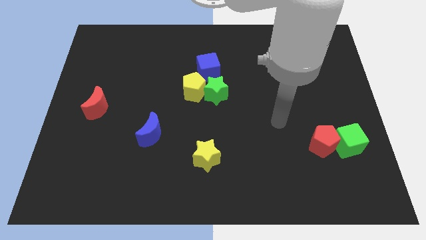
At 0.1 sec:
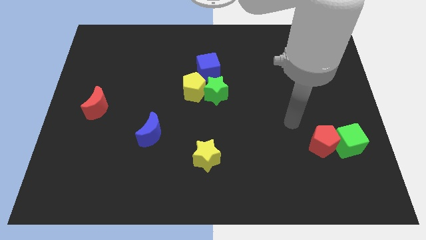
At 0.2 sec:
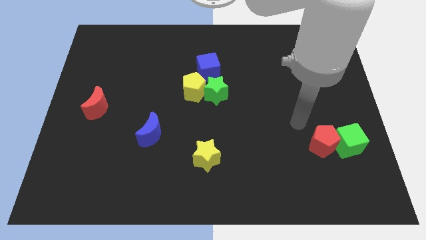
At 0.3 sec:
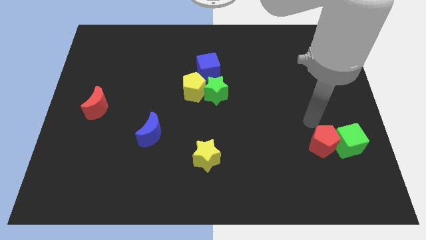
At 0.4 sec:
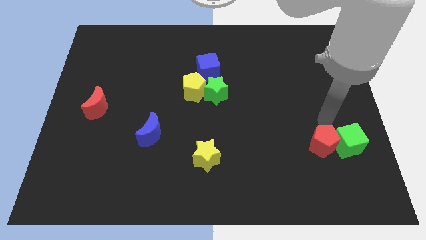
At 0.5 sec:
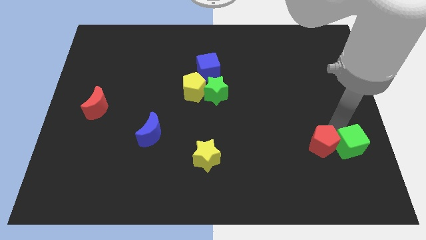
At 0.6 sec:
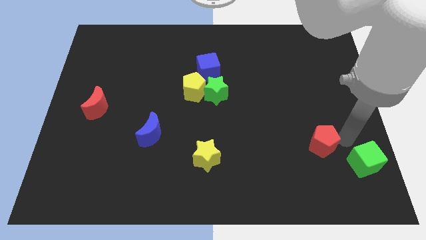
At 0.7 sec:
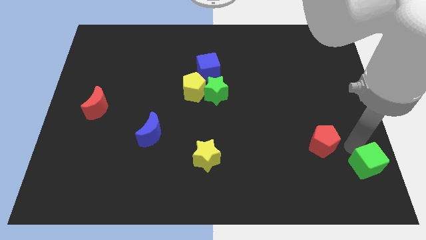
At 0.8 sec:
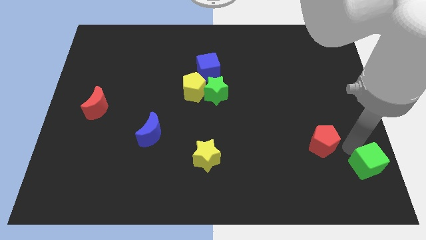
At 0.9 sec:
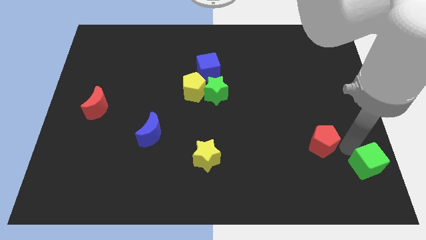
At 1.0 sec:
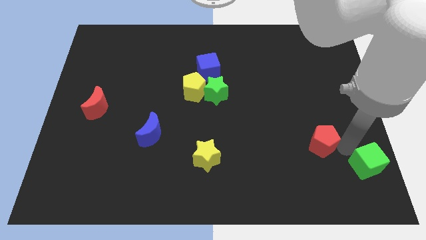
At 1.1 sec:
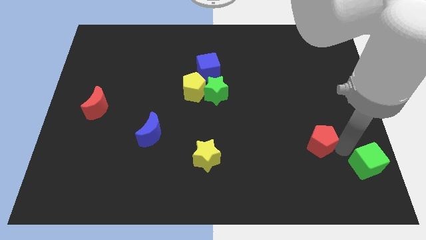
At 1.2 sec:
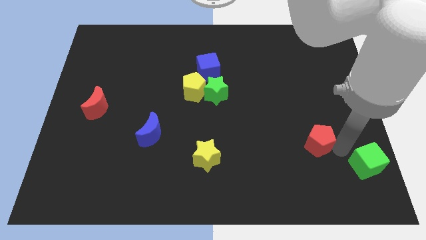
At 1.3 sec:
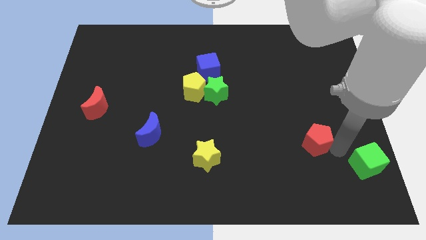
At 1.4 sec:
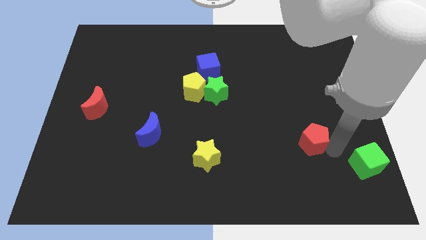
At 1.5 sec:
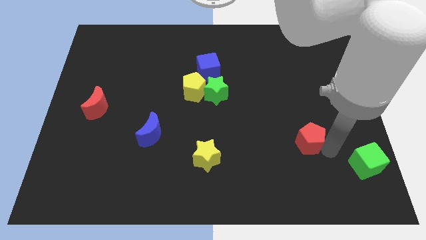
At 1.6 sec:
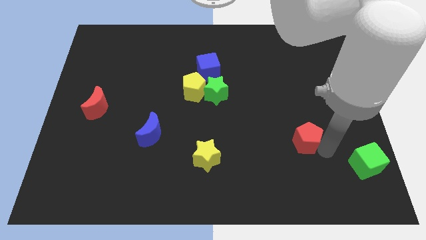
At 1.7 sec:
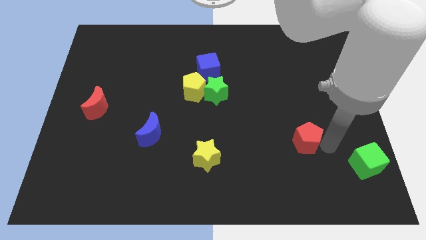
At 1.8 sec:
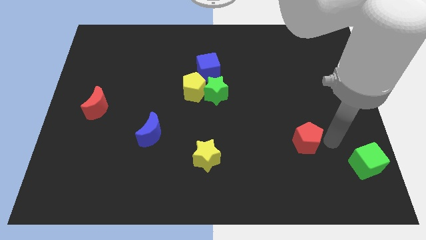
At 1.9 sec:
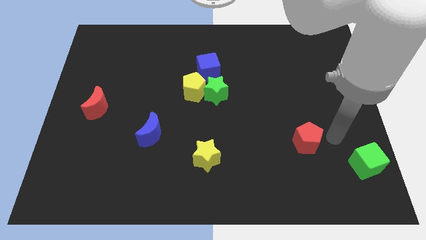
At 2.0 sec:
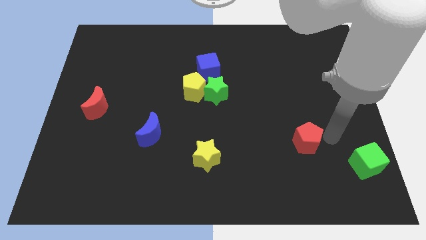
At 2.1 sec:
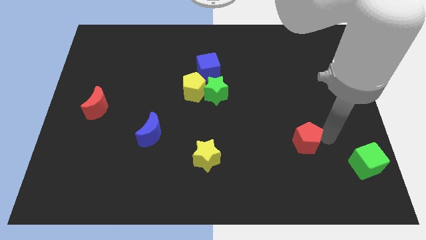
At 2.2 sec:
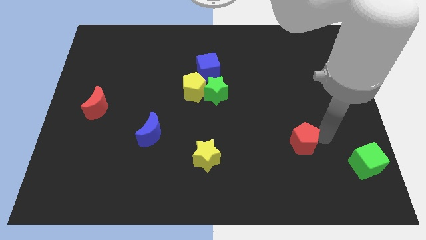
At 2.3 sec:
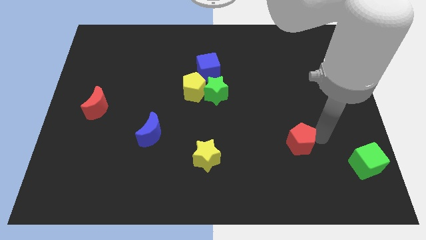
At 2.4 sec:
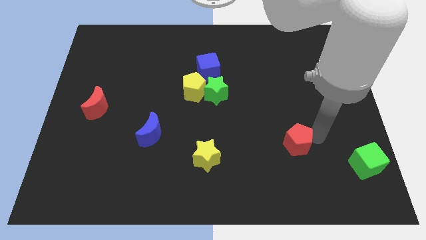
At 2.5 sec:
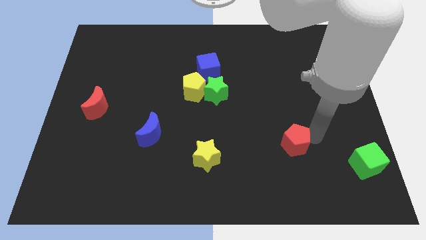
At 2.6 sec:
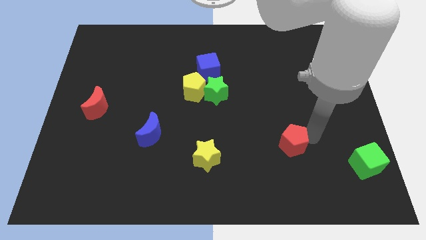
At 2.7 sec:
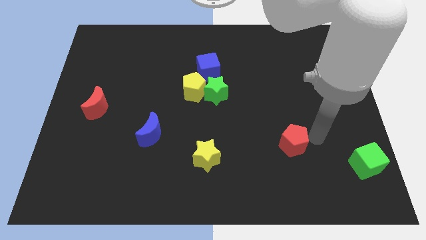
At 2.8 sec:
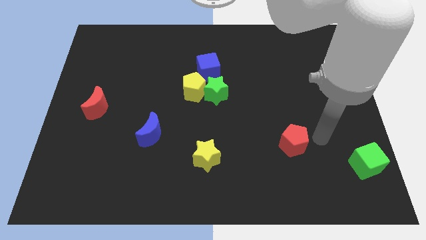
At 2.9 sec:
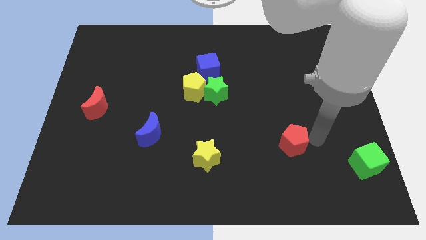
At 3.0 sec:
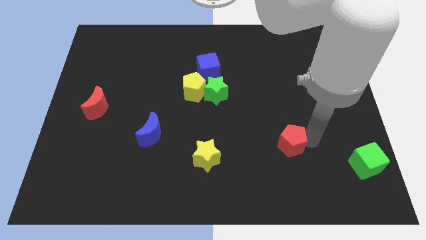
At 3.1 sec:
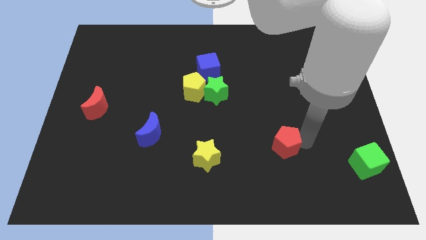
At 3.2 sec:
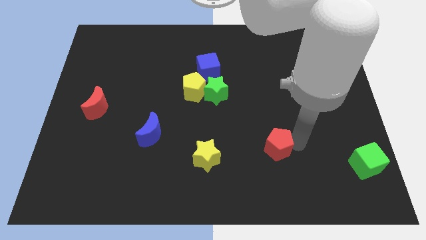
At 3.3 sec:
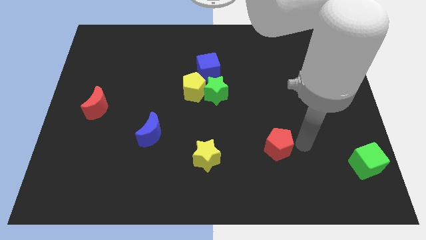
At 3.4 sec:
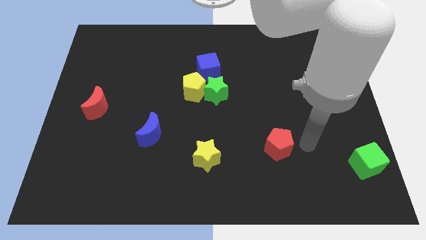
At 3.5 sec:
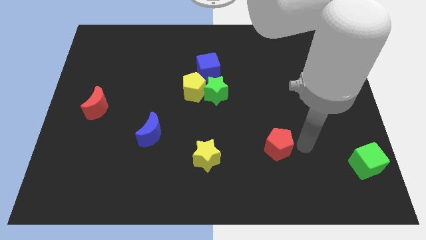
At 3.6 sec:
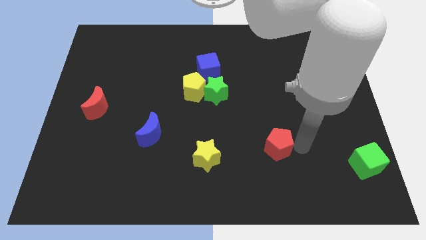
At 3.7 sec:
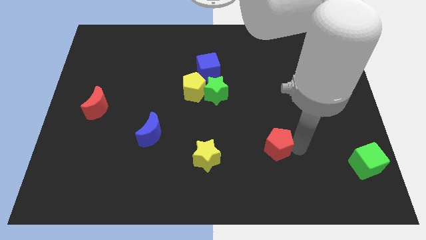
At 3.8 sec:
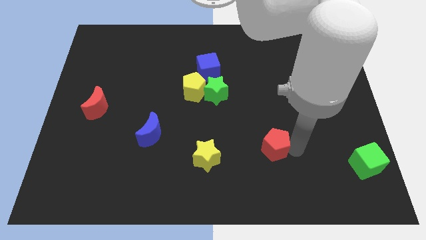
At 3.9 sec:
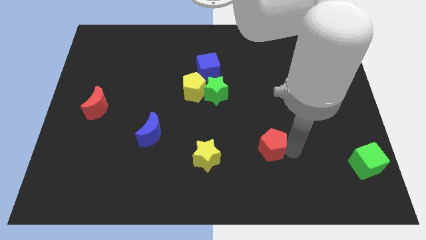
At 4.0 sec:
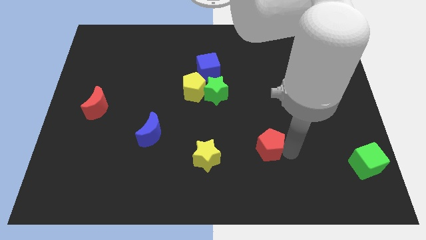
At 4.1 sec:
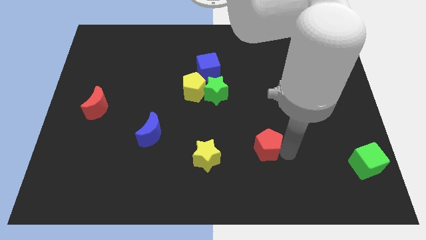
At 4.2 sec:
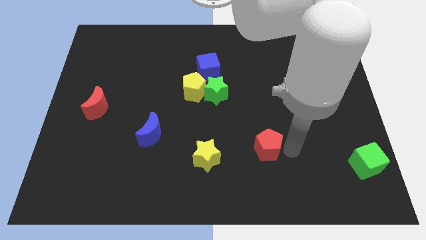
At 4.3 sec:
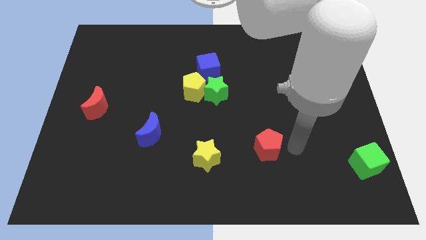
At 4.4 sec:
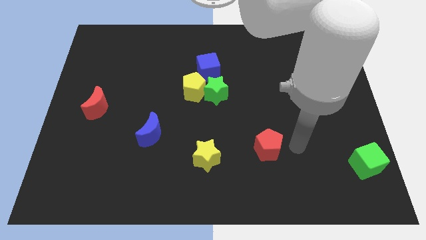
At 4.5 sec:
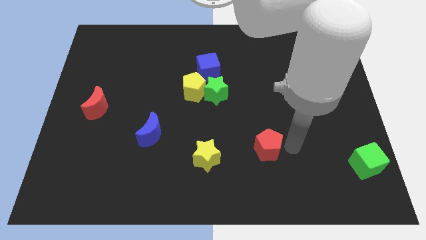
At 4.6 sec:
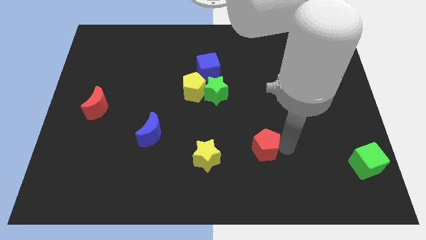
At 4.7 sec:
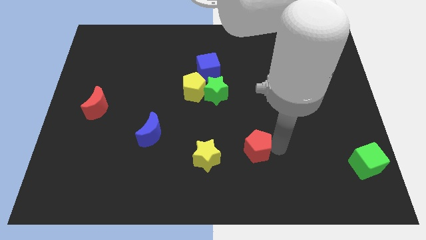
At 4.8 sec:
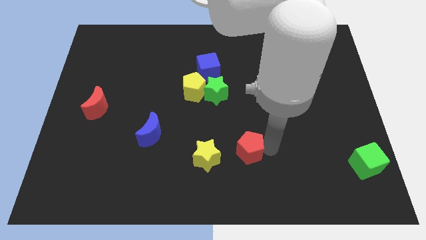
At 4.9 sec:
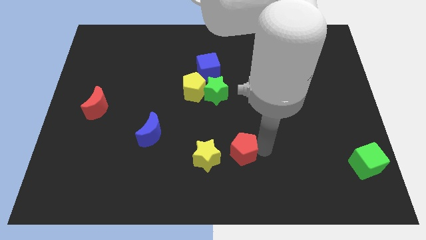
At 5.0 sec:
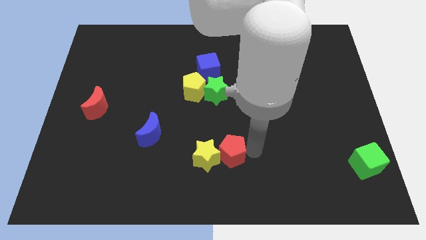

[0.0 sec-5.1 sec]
slide the red pentagon close to the yellow star

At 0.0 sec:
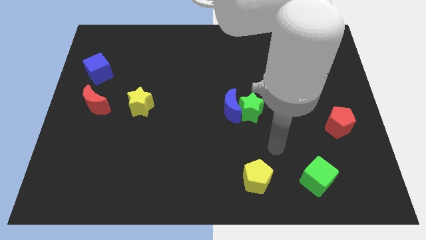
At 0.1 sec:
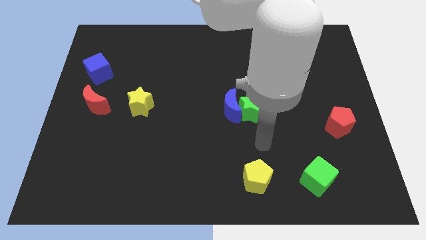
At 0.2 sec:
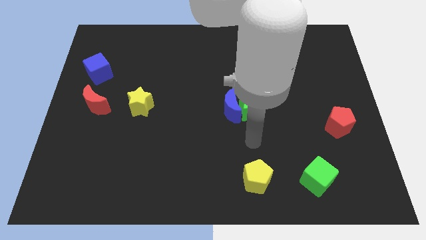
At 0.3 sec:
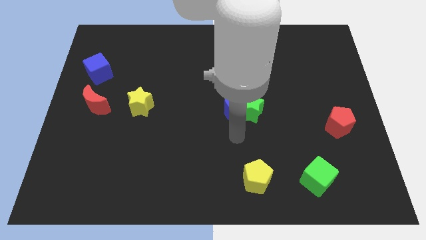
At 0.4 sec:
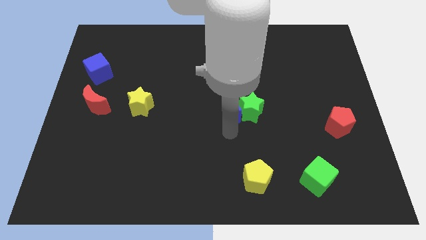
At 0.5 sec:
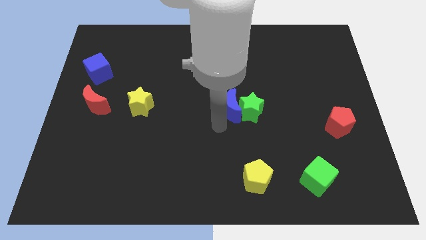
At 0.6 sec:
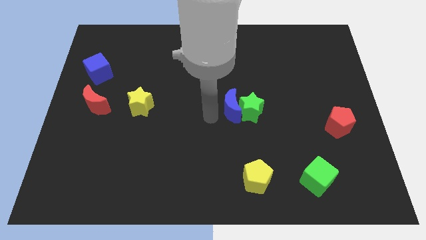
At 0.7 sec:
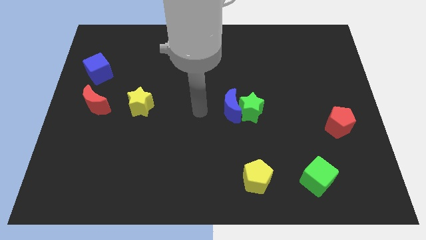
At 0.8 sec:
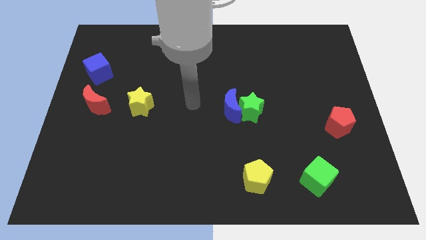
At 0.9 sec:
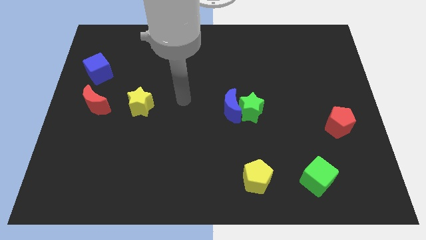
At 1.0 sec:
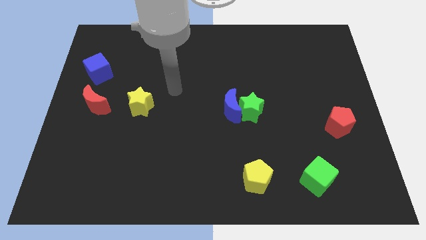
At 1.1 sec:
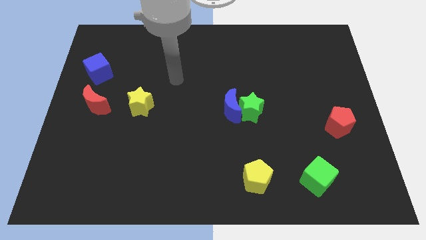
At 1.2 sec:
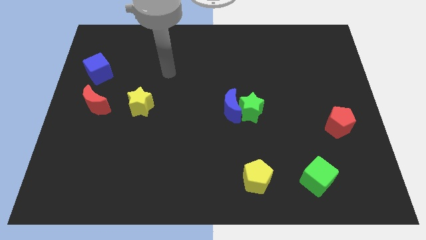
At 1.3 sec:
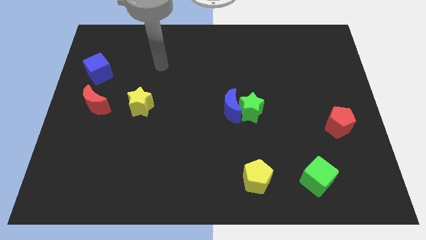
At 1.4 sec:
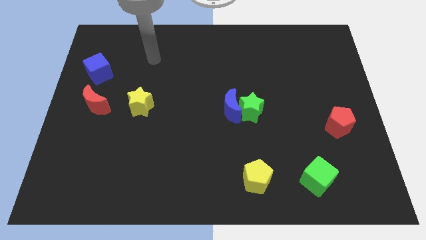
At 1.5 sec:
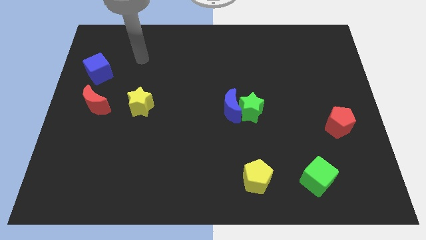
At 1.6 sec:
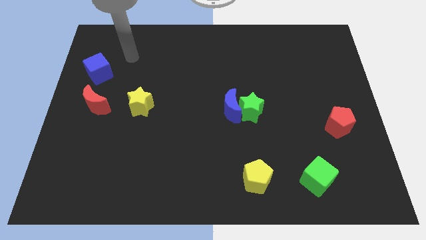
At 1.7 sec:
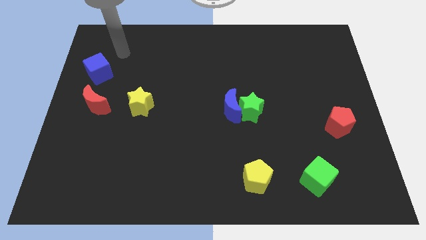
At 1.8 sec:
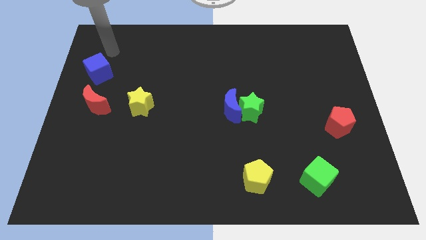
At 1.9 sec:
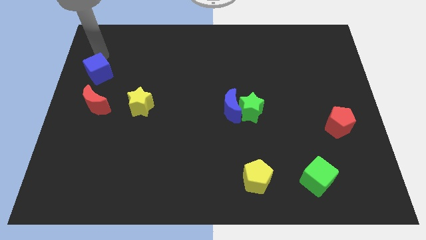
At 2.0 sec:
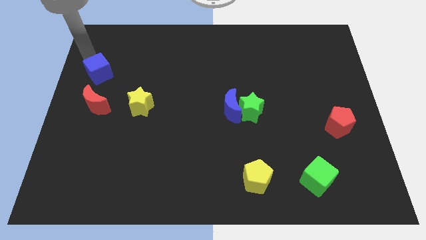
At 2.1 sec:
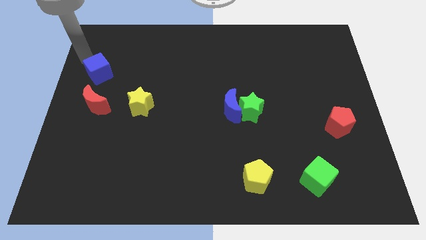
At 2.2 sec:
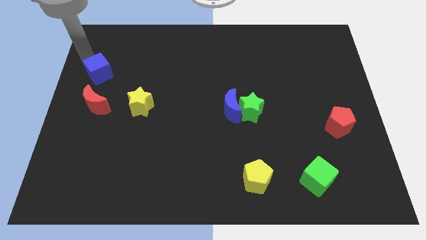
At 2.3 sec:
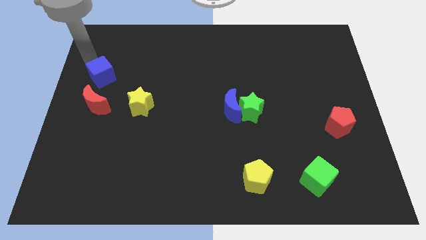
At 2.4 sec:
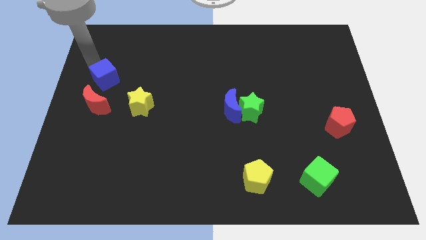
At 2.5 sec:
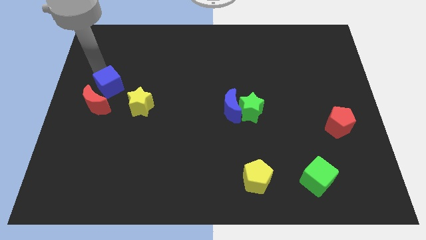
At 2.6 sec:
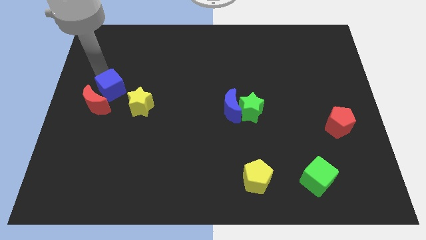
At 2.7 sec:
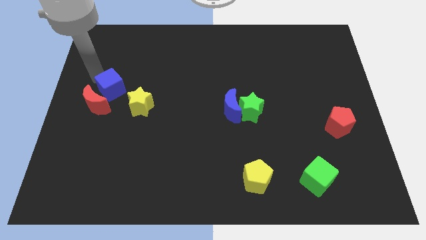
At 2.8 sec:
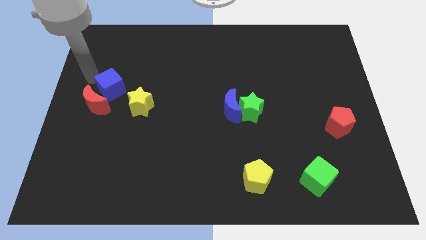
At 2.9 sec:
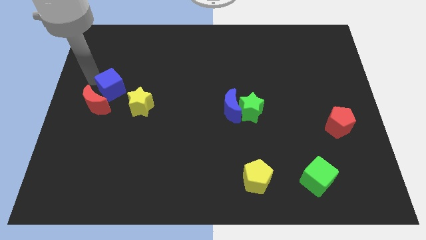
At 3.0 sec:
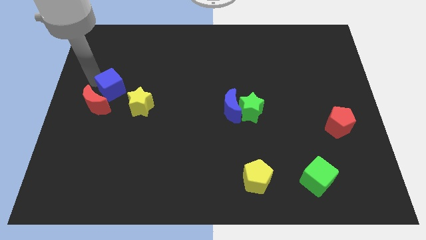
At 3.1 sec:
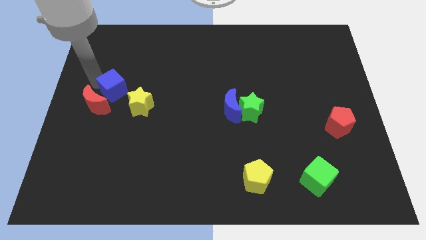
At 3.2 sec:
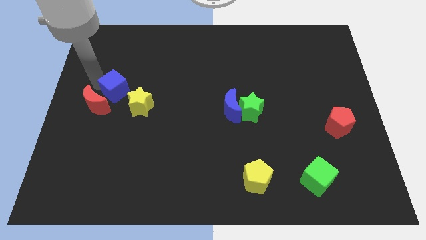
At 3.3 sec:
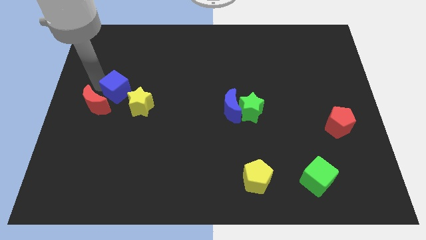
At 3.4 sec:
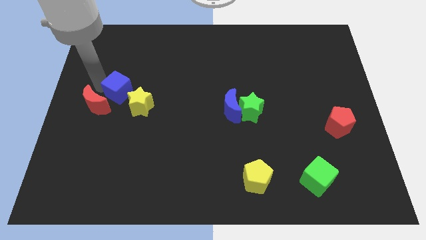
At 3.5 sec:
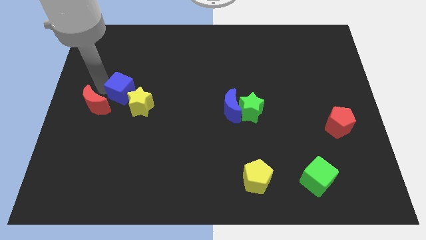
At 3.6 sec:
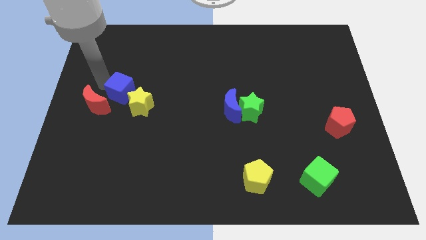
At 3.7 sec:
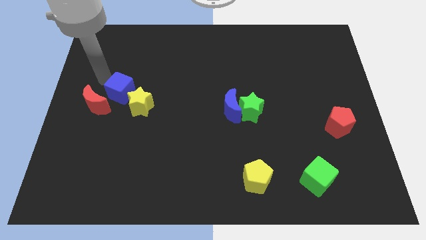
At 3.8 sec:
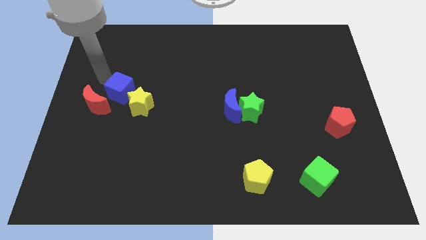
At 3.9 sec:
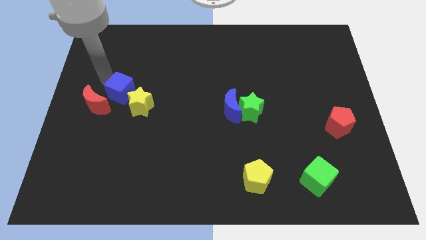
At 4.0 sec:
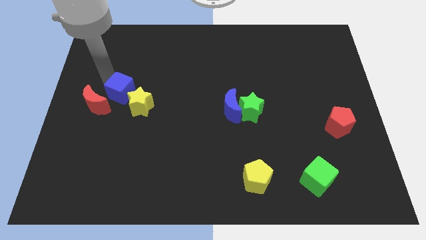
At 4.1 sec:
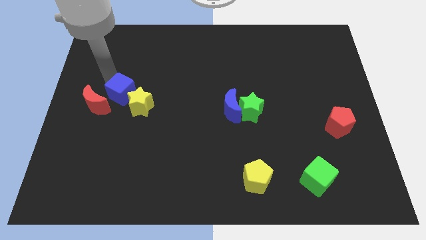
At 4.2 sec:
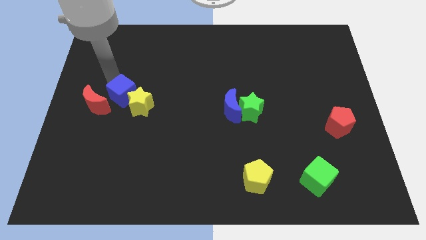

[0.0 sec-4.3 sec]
move the blue cube to the yellow star
